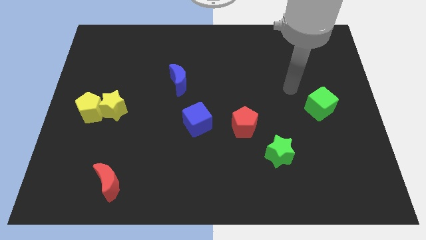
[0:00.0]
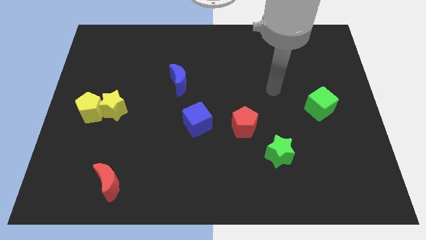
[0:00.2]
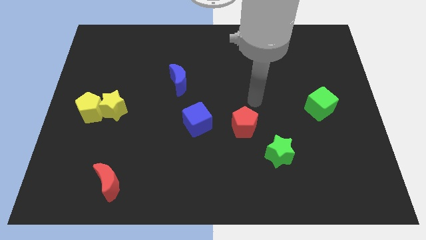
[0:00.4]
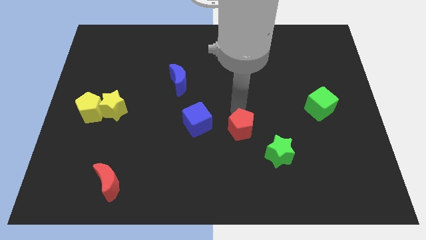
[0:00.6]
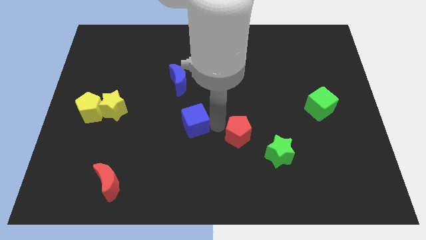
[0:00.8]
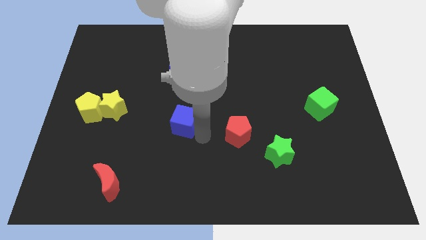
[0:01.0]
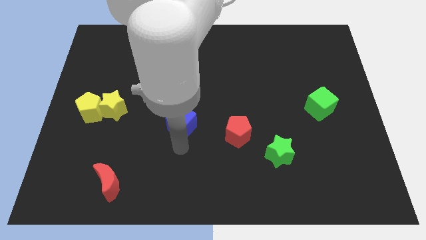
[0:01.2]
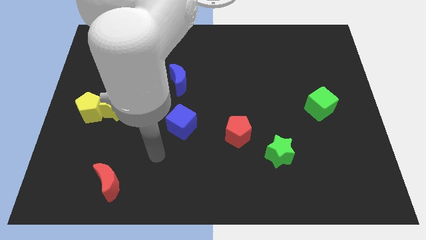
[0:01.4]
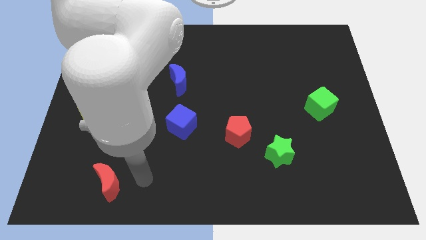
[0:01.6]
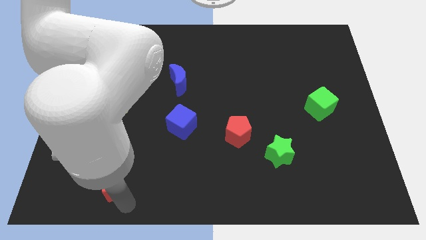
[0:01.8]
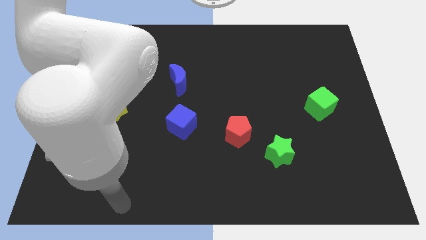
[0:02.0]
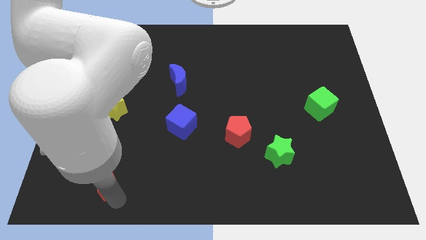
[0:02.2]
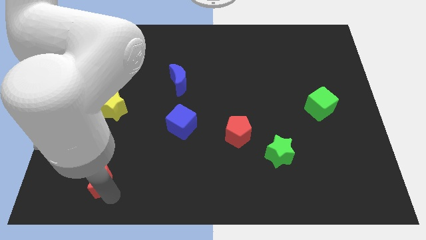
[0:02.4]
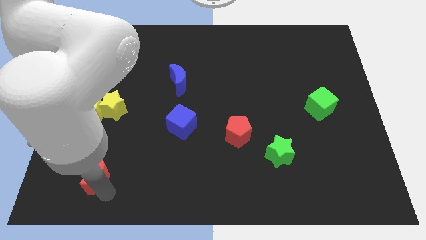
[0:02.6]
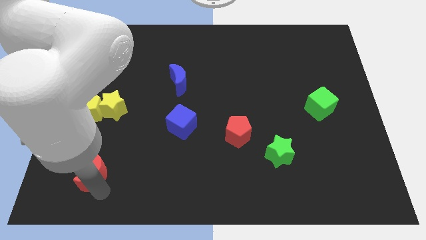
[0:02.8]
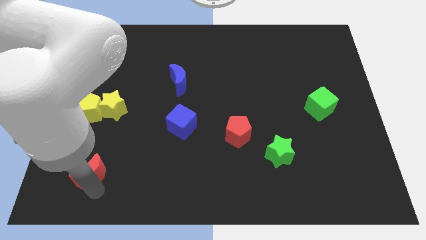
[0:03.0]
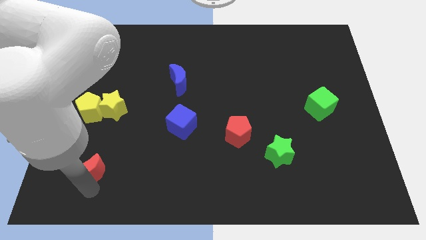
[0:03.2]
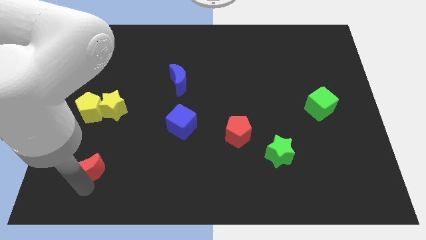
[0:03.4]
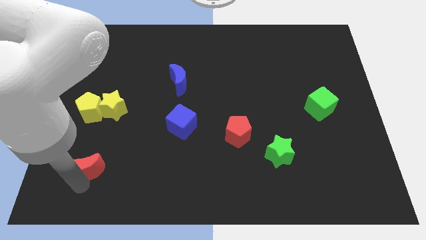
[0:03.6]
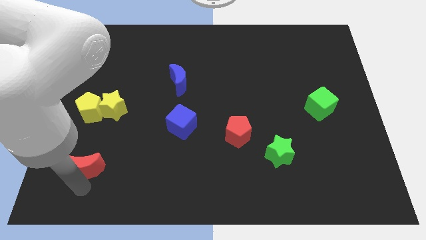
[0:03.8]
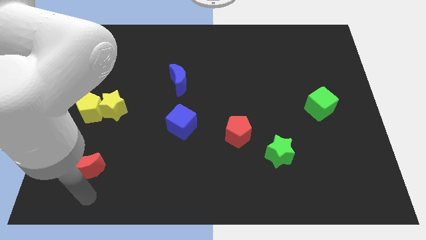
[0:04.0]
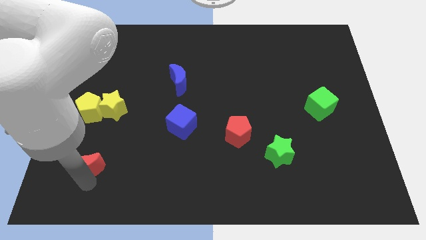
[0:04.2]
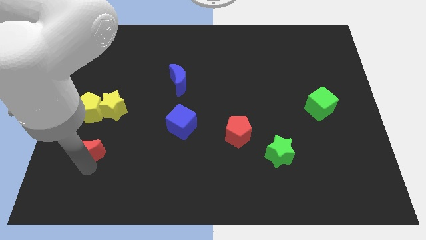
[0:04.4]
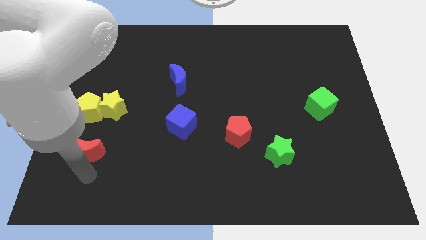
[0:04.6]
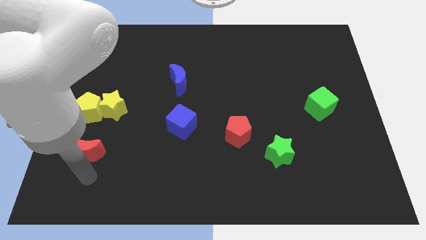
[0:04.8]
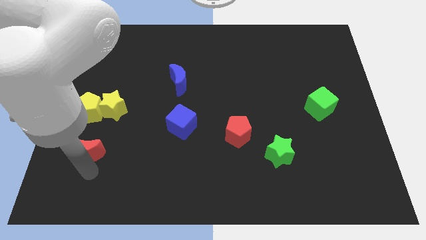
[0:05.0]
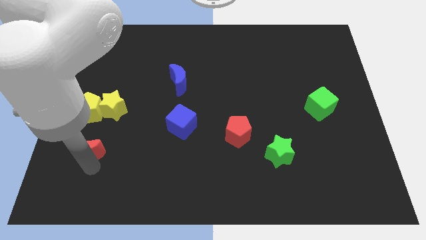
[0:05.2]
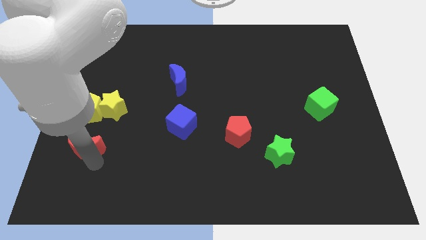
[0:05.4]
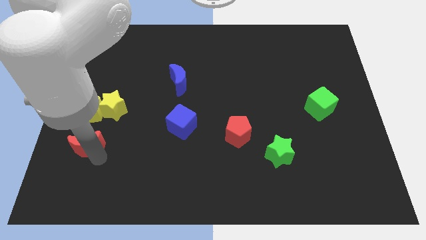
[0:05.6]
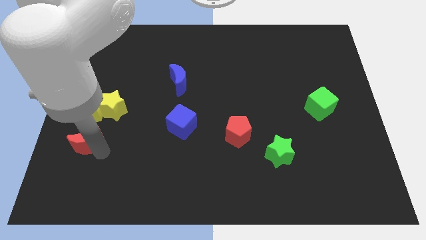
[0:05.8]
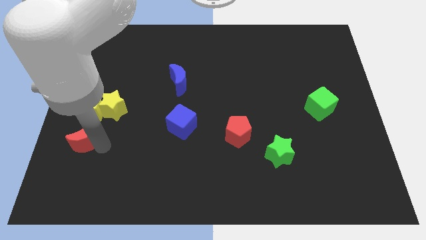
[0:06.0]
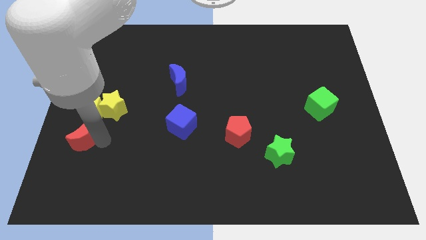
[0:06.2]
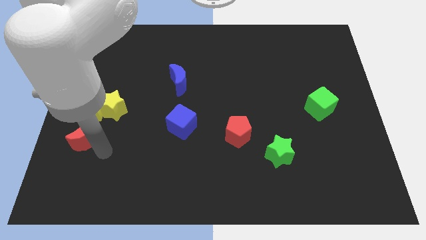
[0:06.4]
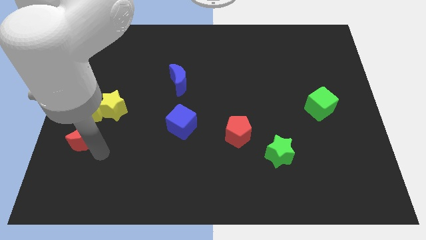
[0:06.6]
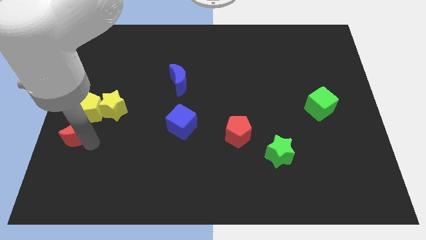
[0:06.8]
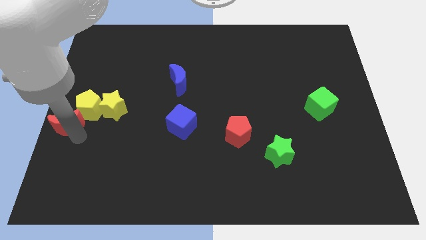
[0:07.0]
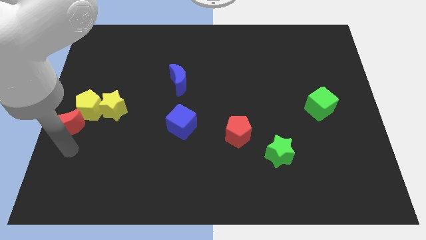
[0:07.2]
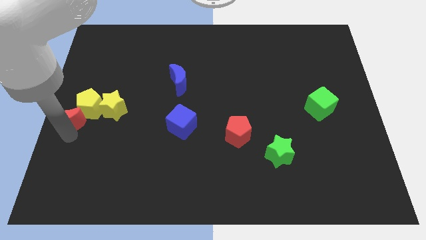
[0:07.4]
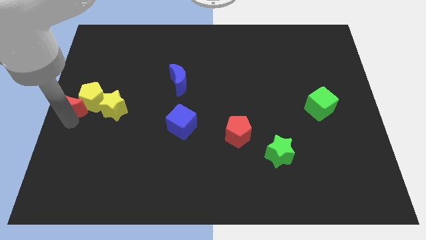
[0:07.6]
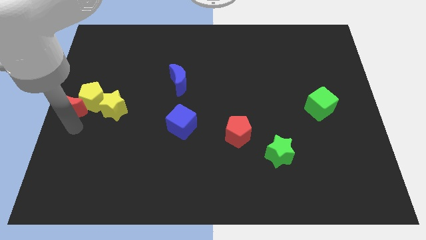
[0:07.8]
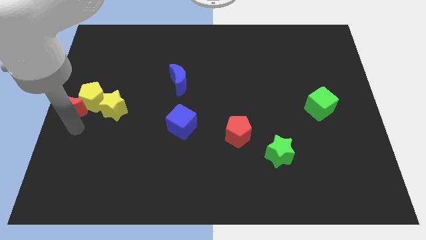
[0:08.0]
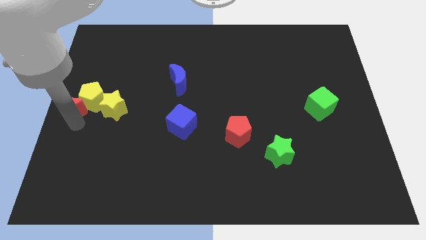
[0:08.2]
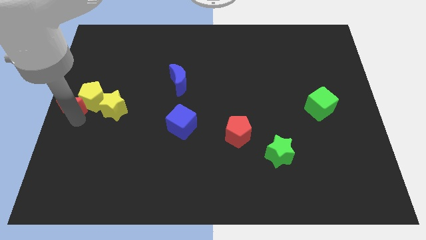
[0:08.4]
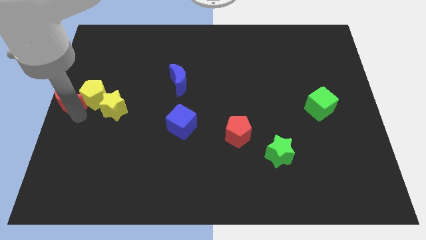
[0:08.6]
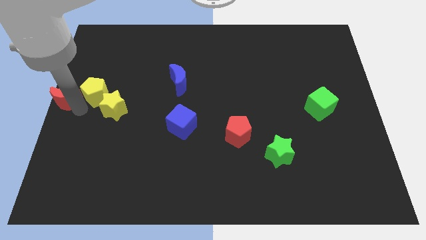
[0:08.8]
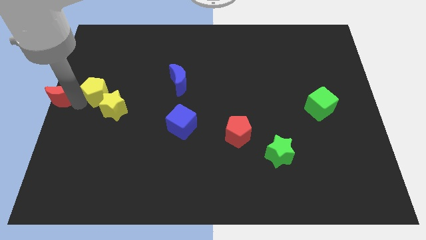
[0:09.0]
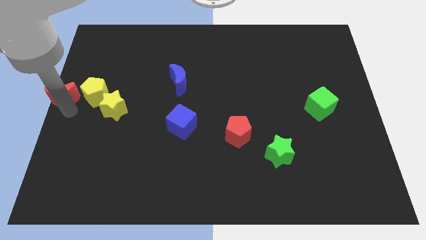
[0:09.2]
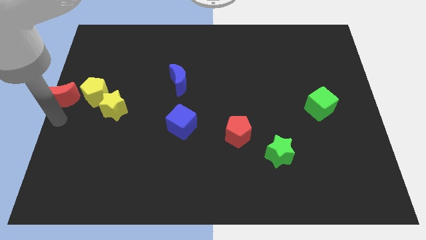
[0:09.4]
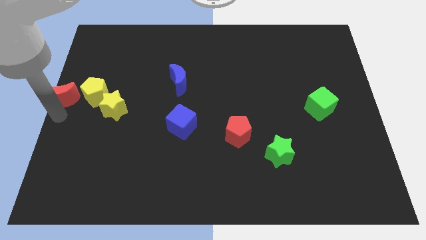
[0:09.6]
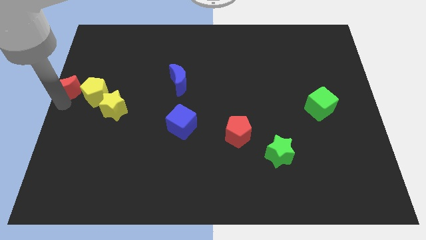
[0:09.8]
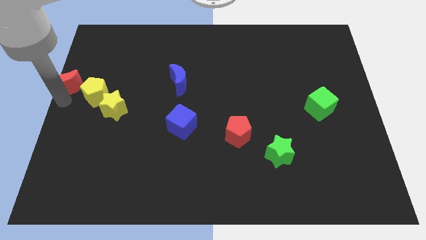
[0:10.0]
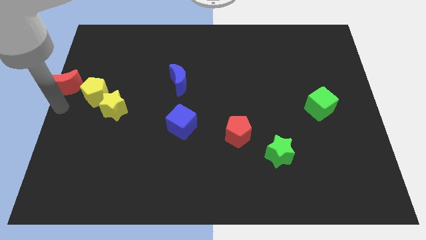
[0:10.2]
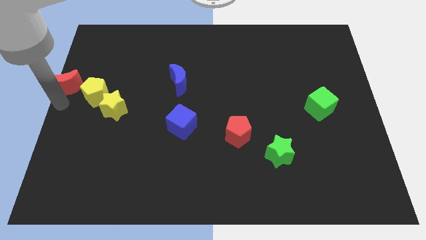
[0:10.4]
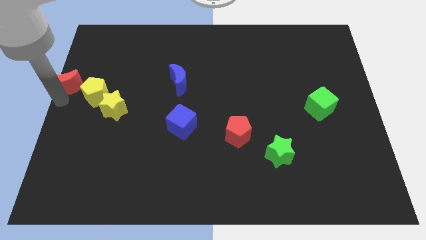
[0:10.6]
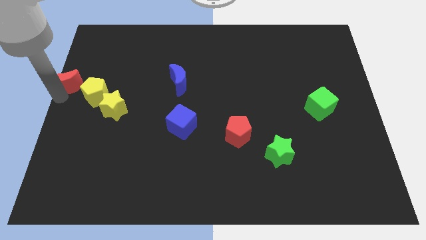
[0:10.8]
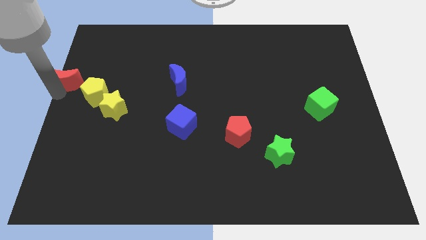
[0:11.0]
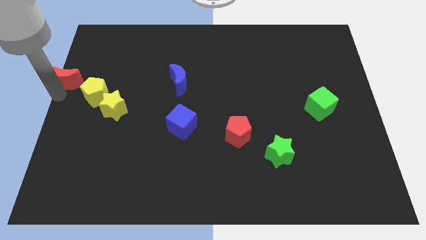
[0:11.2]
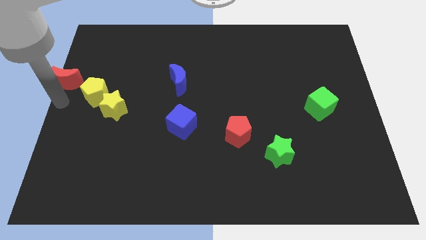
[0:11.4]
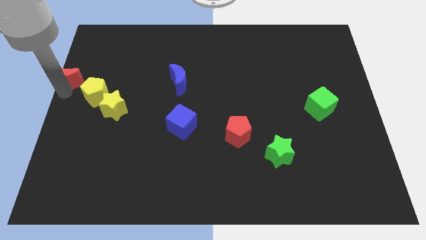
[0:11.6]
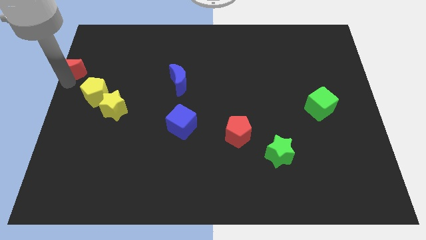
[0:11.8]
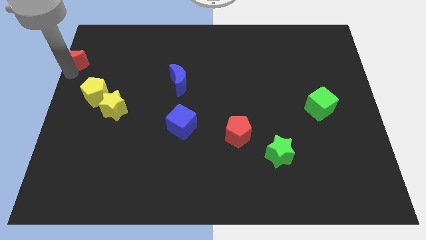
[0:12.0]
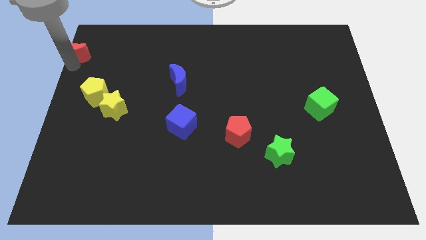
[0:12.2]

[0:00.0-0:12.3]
put the red moon to the upper left corner

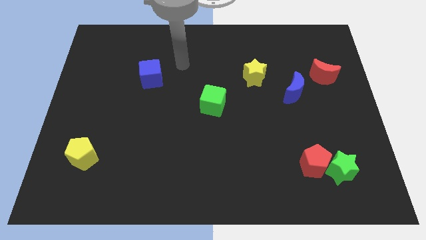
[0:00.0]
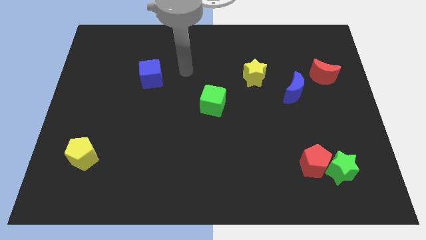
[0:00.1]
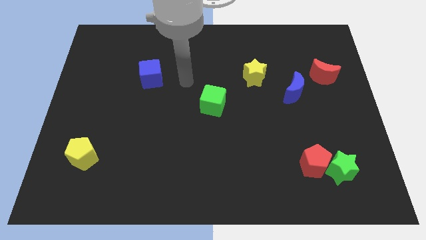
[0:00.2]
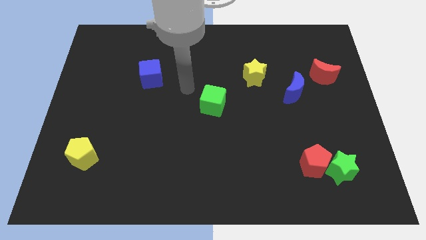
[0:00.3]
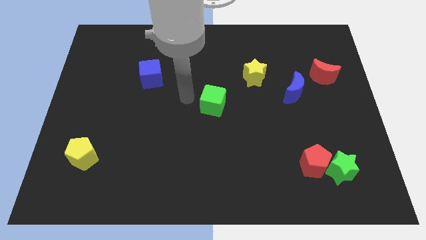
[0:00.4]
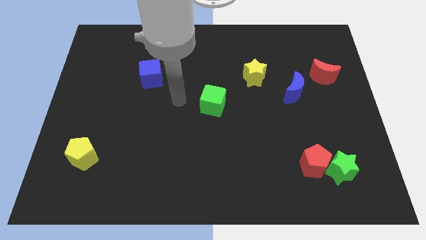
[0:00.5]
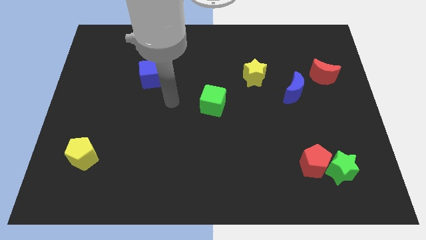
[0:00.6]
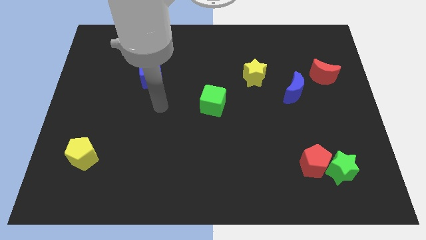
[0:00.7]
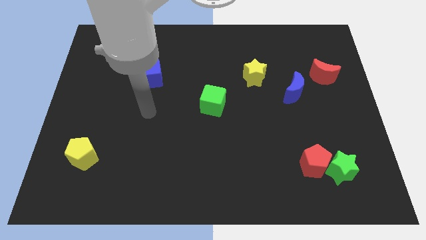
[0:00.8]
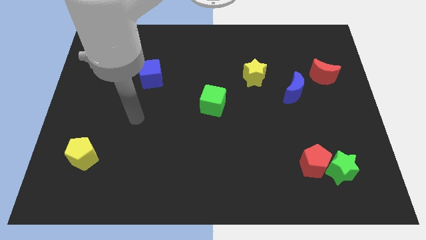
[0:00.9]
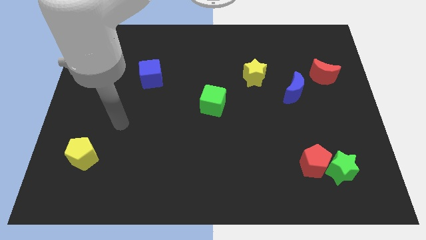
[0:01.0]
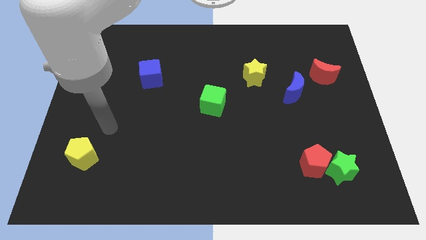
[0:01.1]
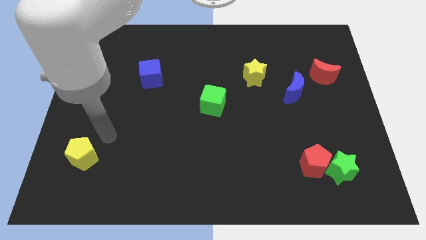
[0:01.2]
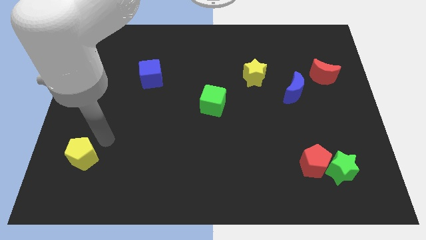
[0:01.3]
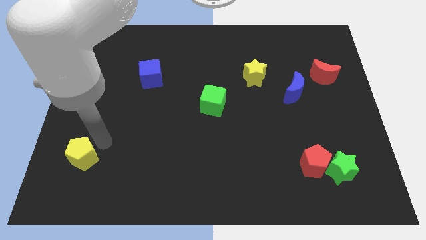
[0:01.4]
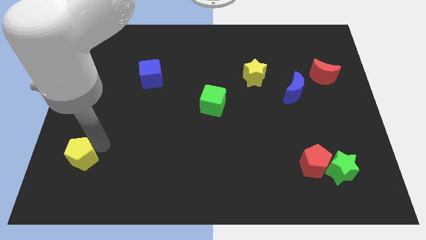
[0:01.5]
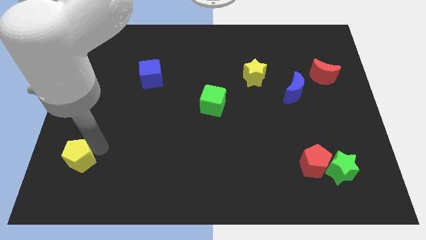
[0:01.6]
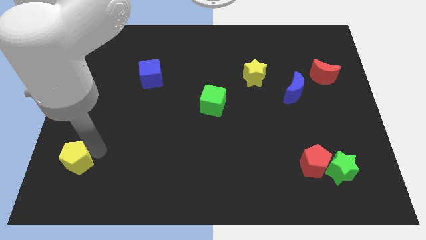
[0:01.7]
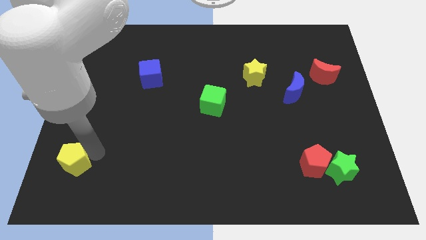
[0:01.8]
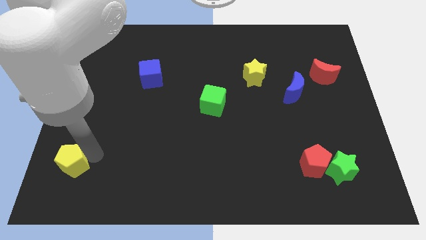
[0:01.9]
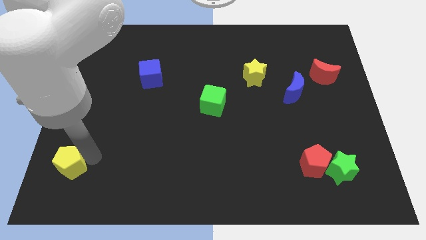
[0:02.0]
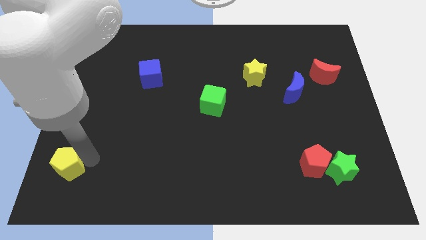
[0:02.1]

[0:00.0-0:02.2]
move the yellow pentagon to the bottom left
